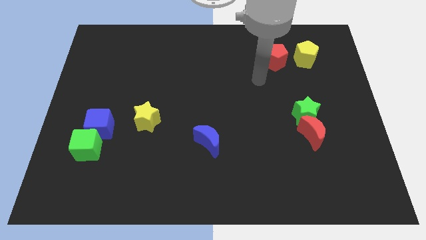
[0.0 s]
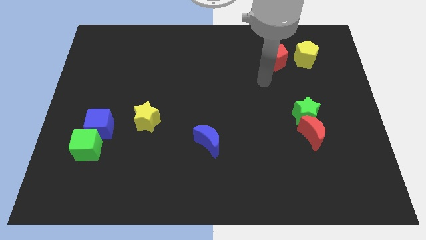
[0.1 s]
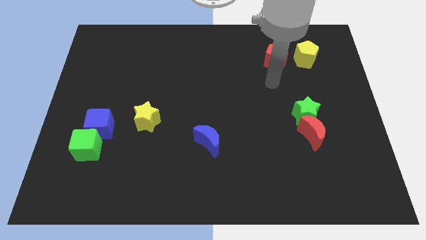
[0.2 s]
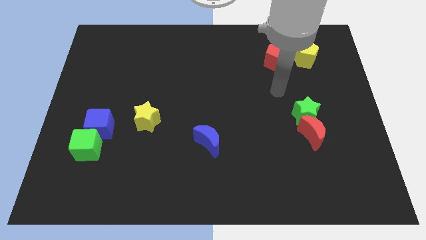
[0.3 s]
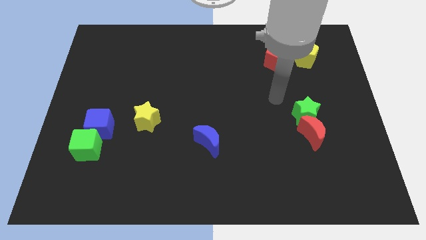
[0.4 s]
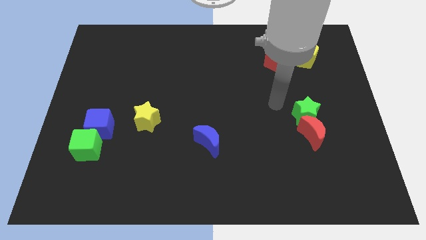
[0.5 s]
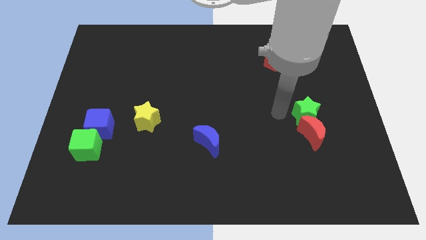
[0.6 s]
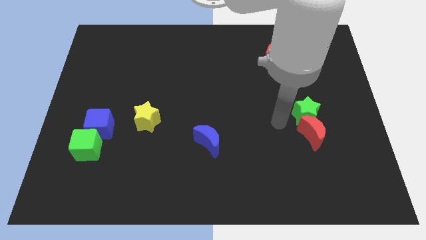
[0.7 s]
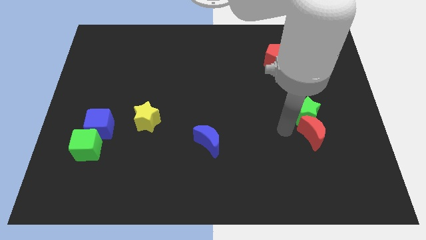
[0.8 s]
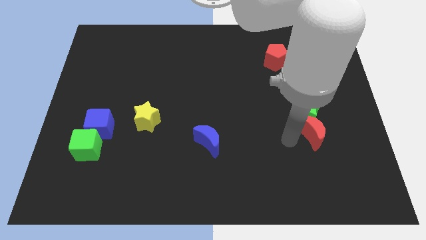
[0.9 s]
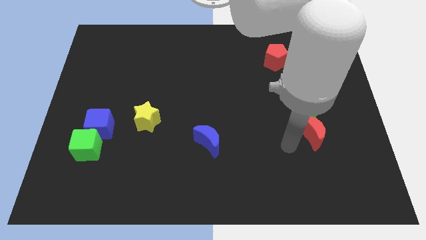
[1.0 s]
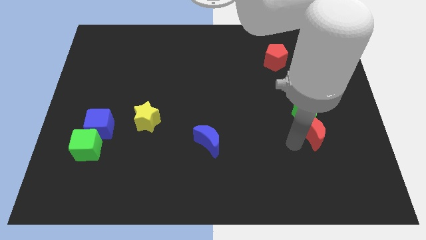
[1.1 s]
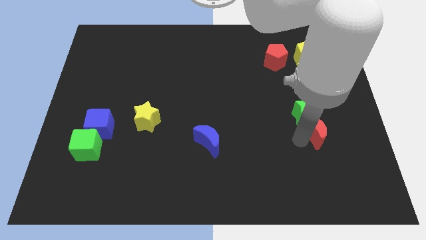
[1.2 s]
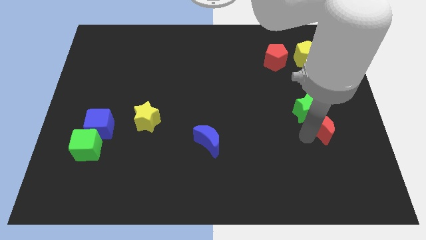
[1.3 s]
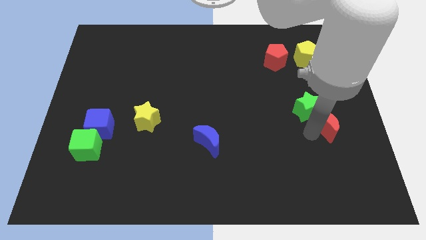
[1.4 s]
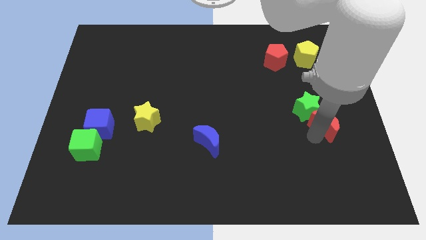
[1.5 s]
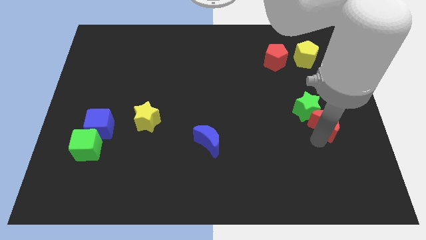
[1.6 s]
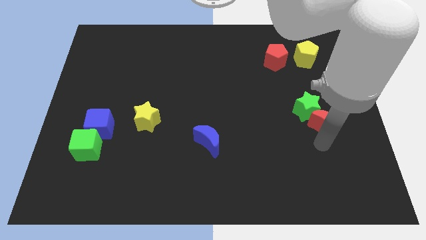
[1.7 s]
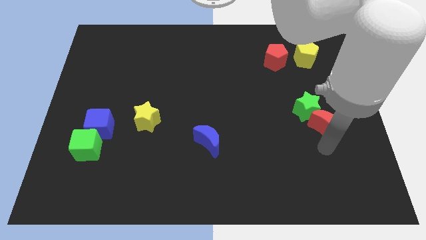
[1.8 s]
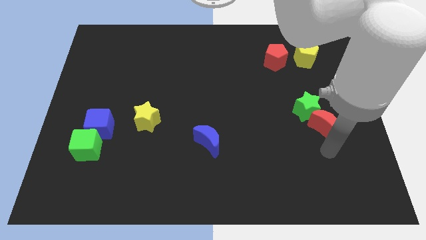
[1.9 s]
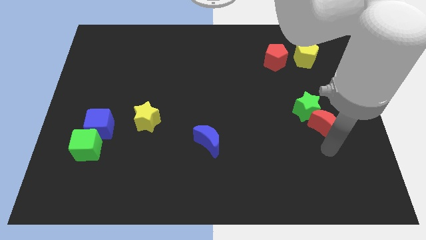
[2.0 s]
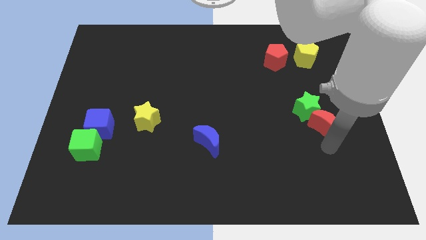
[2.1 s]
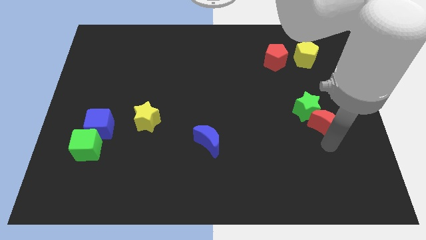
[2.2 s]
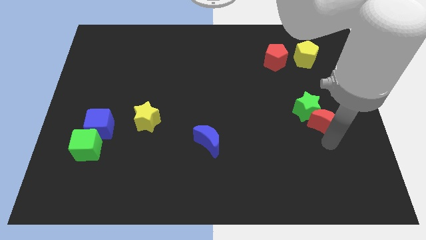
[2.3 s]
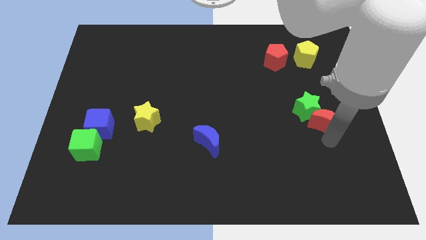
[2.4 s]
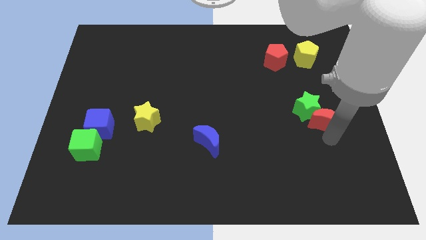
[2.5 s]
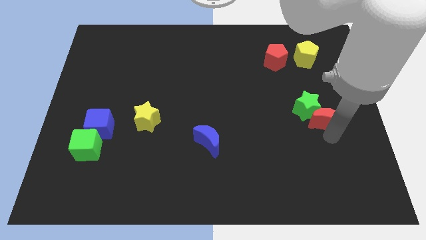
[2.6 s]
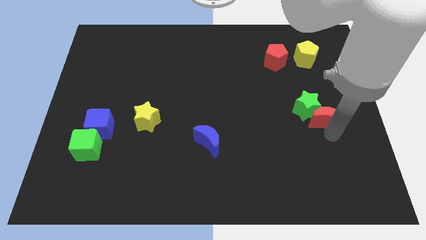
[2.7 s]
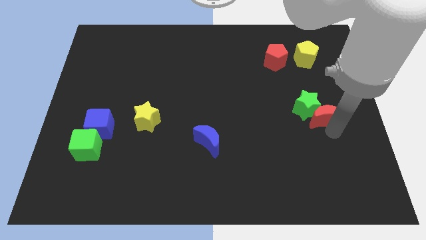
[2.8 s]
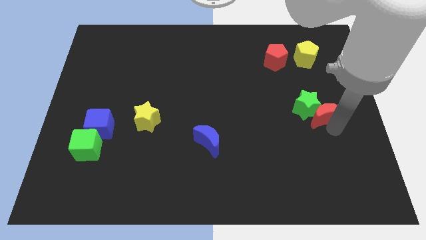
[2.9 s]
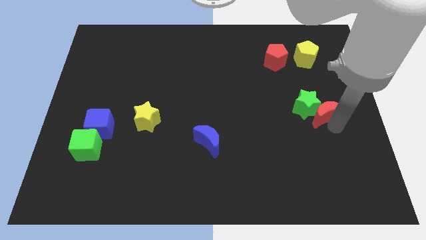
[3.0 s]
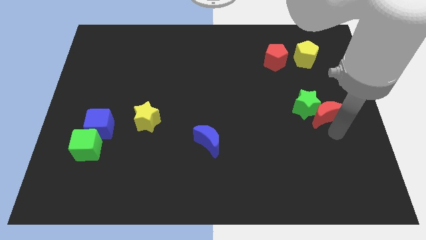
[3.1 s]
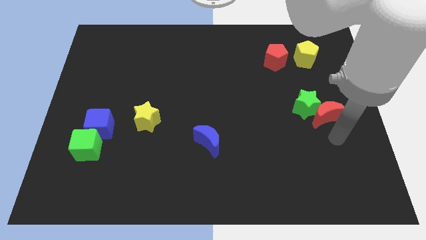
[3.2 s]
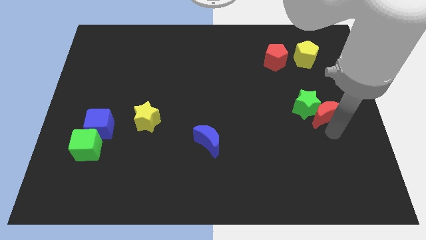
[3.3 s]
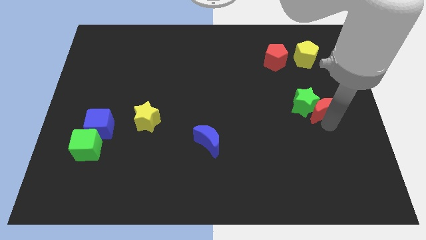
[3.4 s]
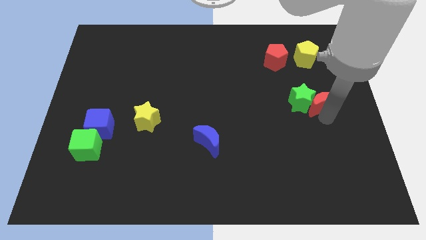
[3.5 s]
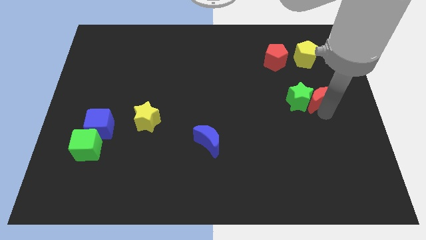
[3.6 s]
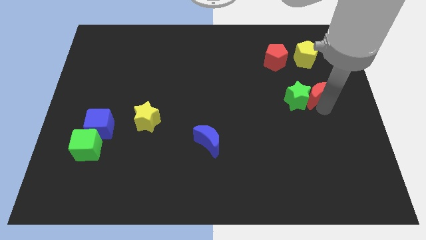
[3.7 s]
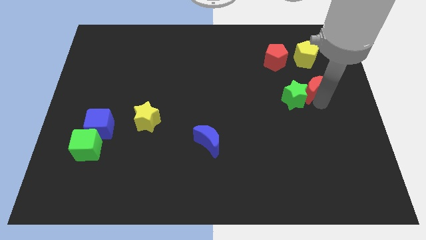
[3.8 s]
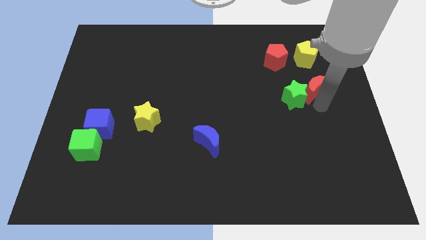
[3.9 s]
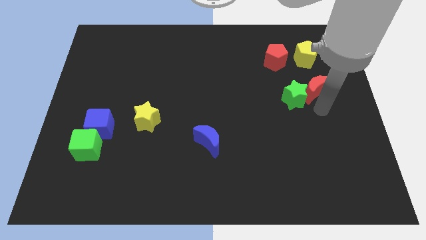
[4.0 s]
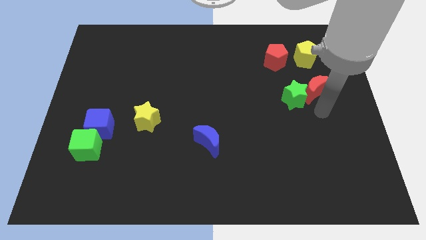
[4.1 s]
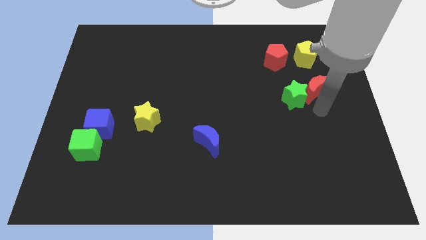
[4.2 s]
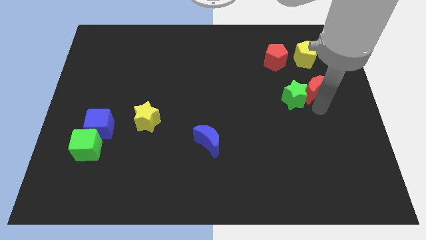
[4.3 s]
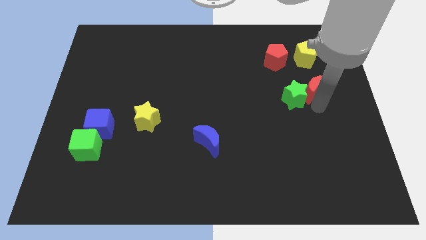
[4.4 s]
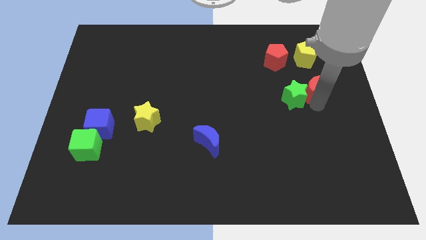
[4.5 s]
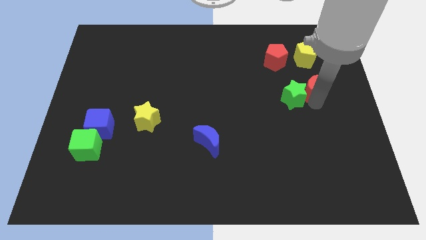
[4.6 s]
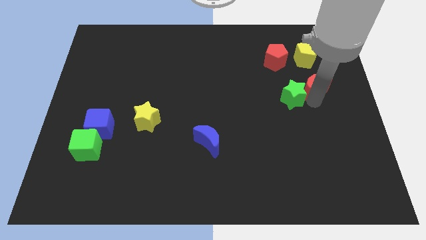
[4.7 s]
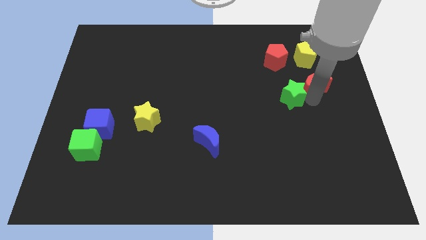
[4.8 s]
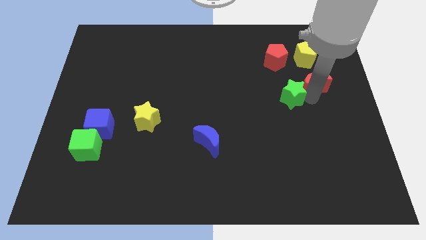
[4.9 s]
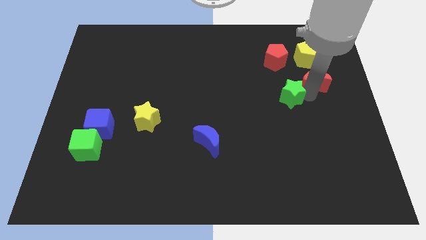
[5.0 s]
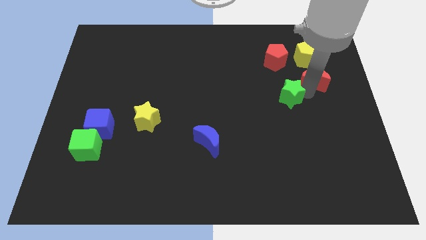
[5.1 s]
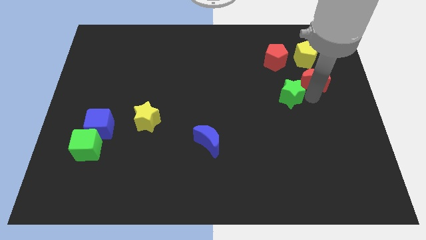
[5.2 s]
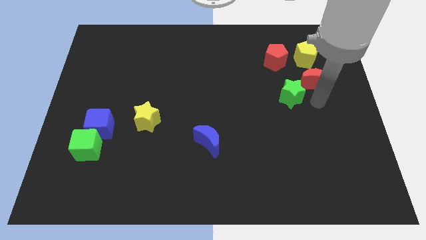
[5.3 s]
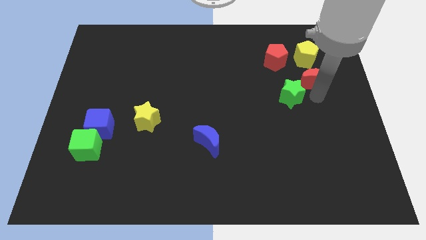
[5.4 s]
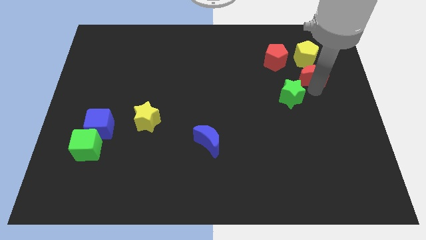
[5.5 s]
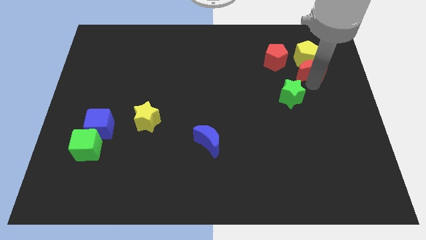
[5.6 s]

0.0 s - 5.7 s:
push the red moon close to the yellow pentagon

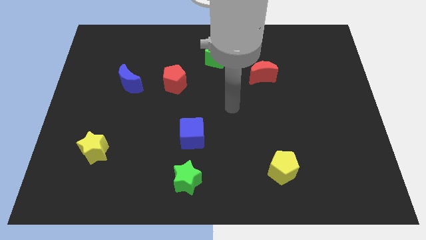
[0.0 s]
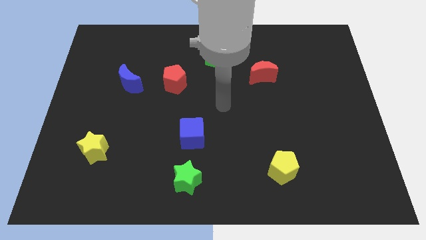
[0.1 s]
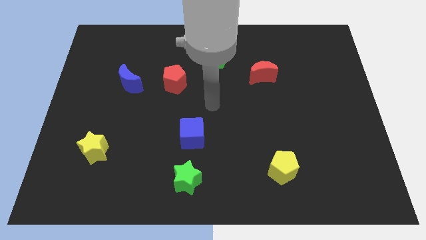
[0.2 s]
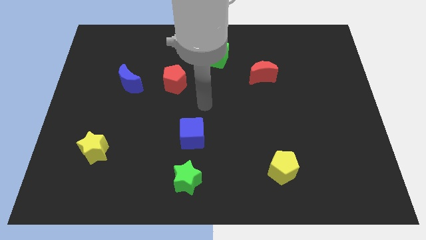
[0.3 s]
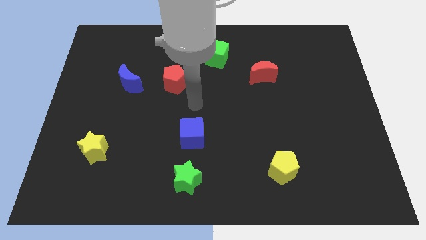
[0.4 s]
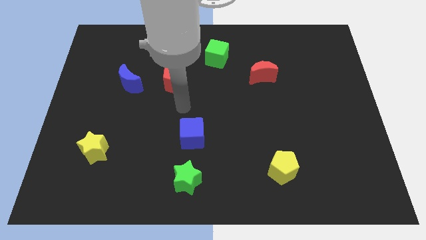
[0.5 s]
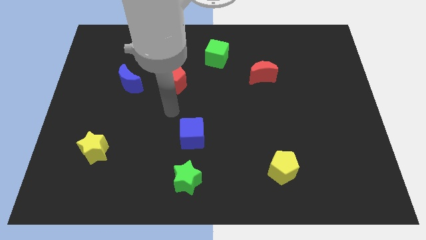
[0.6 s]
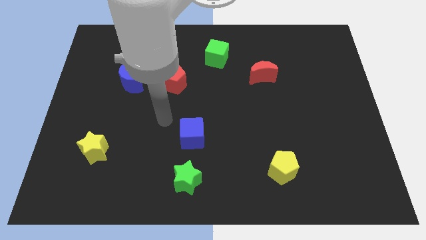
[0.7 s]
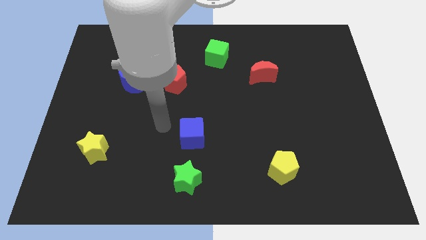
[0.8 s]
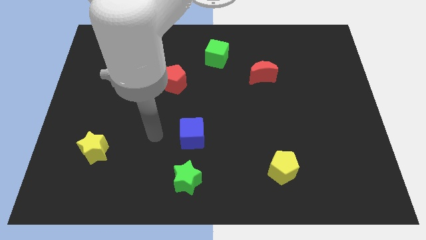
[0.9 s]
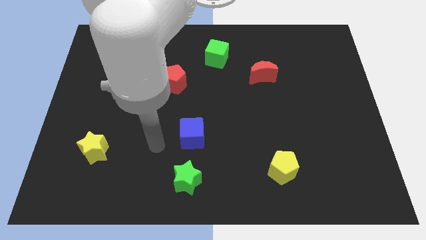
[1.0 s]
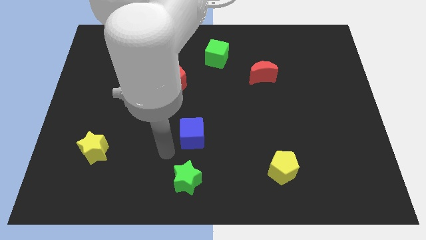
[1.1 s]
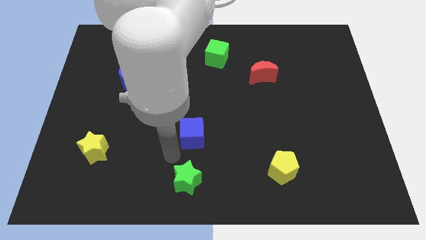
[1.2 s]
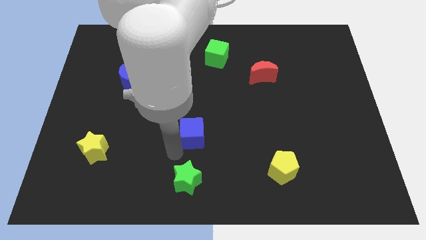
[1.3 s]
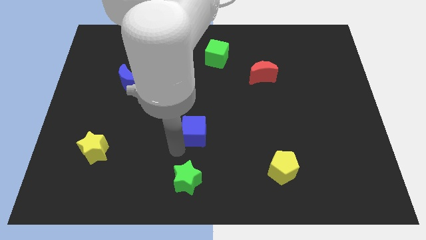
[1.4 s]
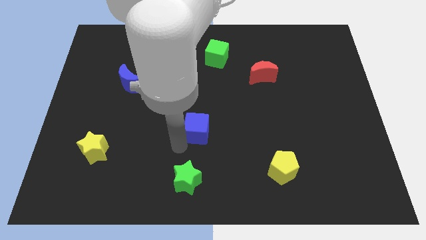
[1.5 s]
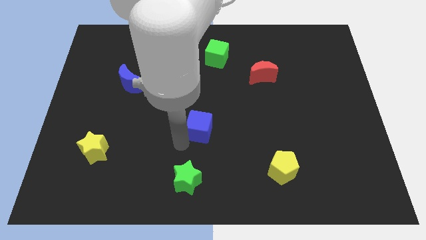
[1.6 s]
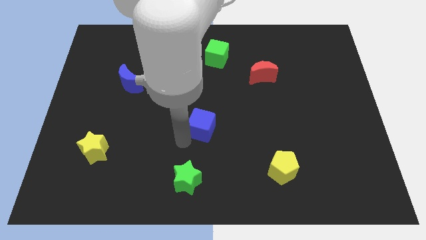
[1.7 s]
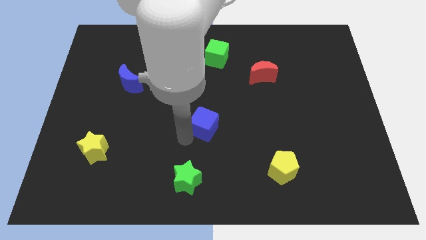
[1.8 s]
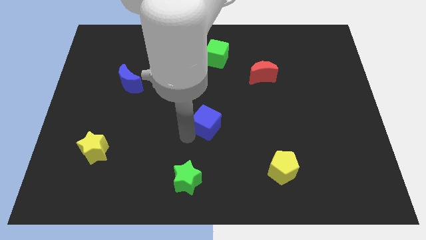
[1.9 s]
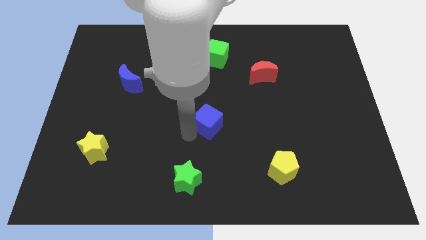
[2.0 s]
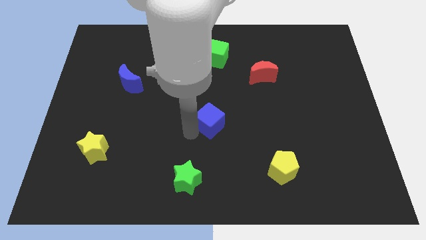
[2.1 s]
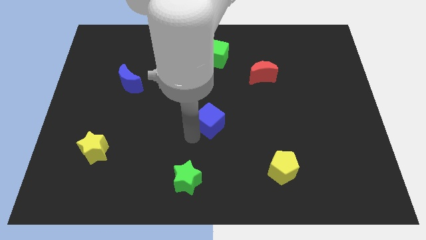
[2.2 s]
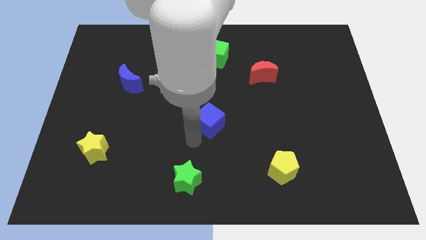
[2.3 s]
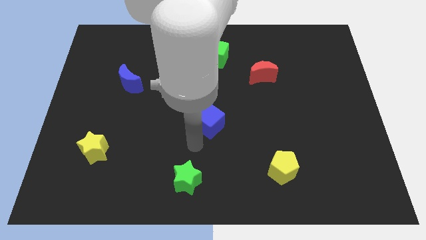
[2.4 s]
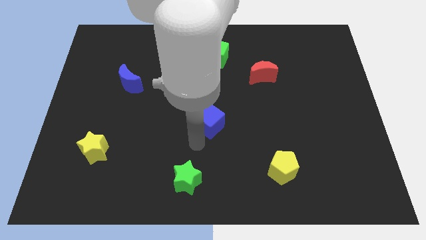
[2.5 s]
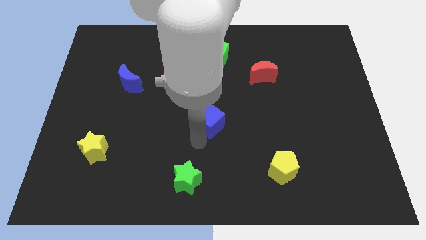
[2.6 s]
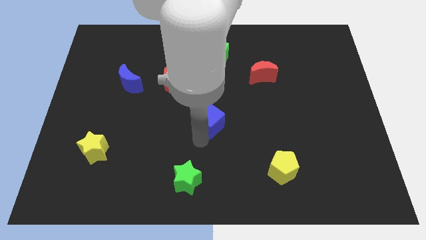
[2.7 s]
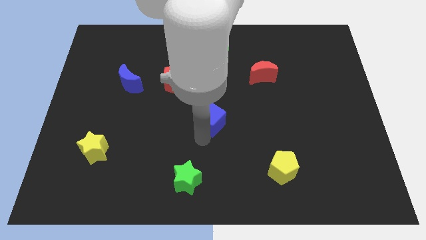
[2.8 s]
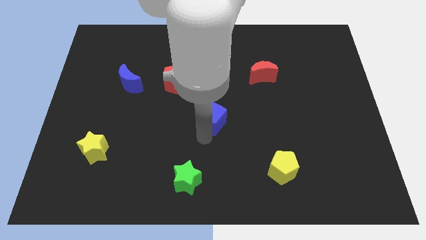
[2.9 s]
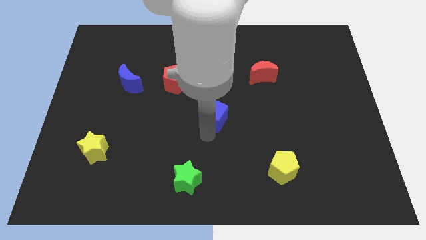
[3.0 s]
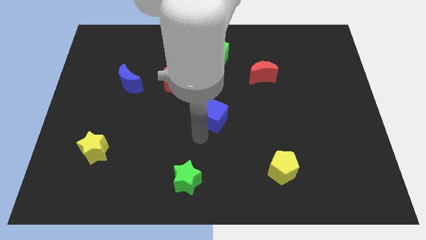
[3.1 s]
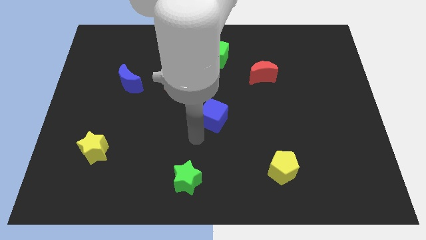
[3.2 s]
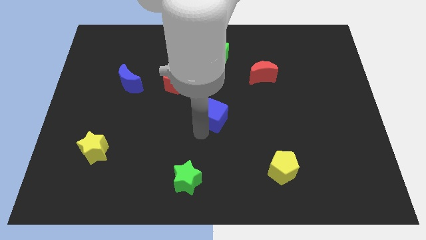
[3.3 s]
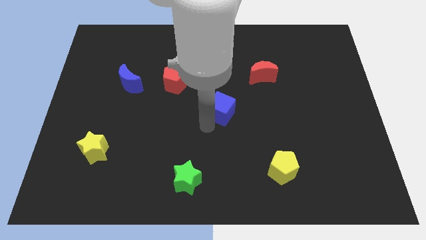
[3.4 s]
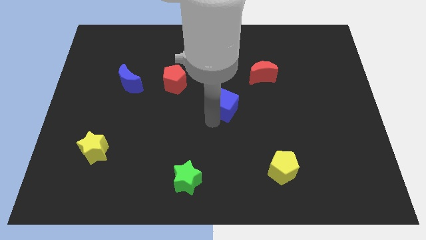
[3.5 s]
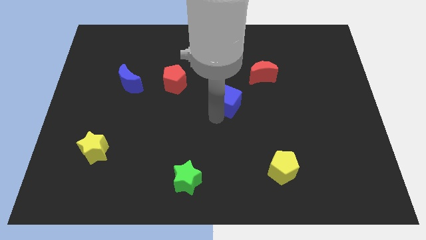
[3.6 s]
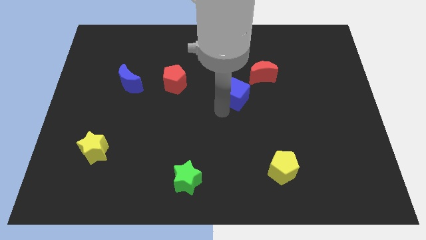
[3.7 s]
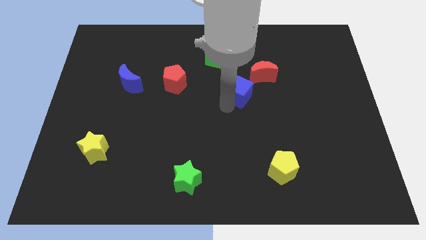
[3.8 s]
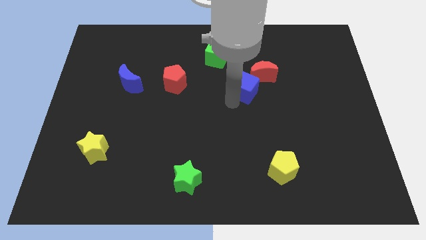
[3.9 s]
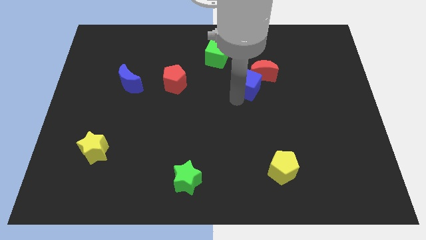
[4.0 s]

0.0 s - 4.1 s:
push the blue cube to the red moon
